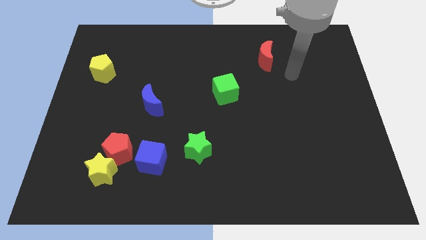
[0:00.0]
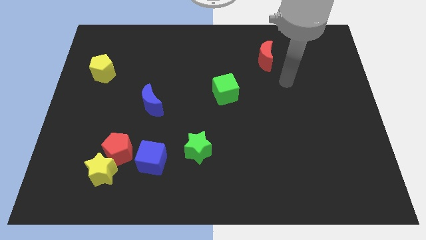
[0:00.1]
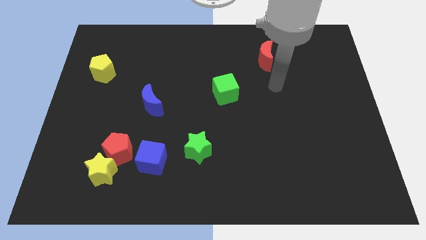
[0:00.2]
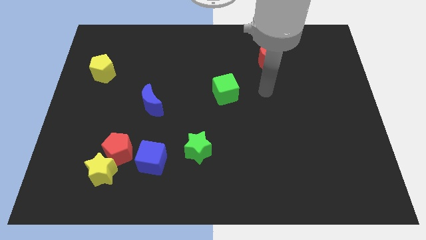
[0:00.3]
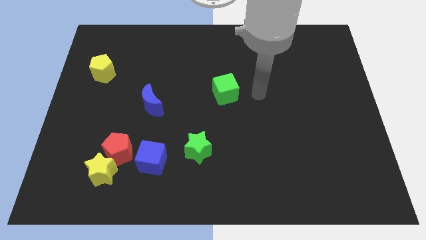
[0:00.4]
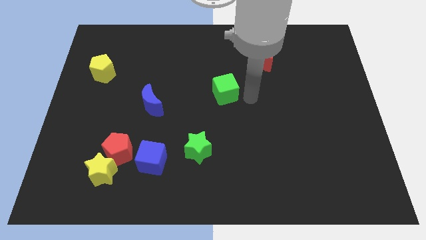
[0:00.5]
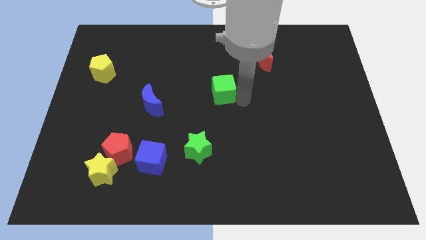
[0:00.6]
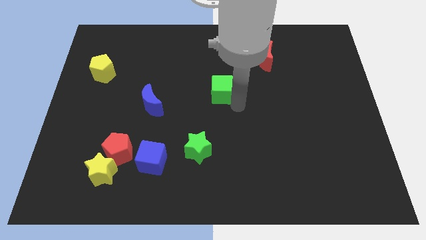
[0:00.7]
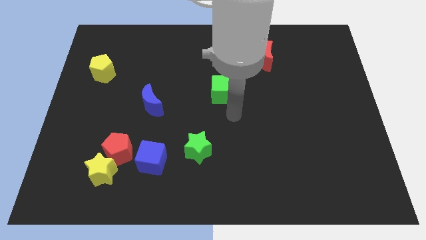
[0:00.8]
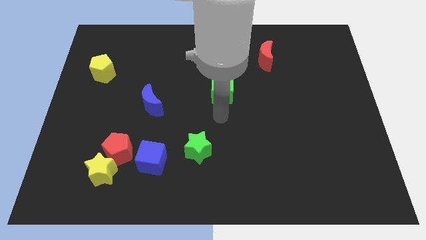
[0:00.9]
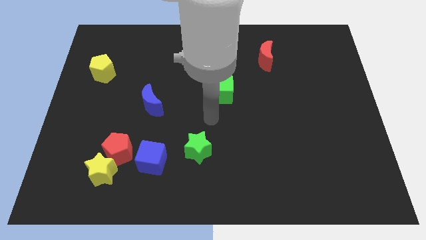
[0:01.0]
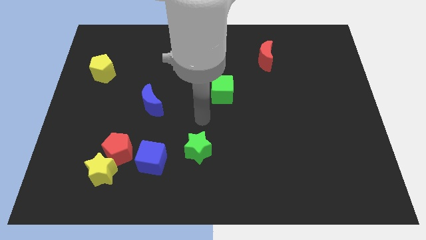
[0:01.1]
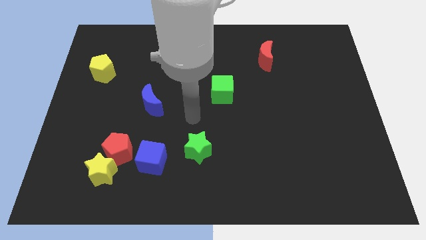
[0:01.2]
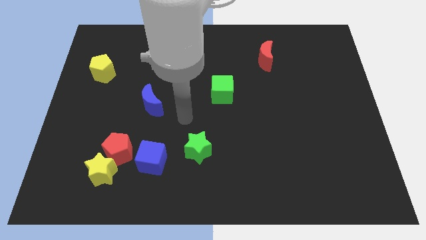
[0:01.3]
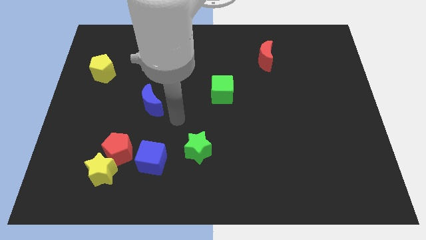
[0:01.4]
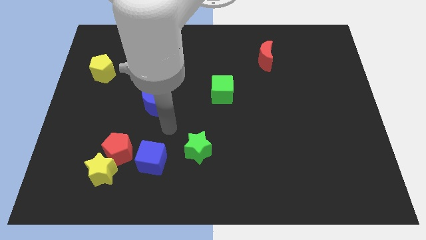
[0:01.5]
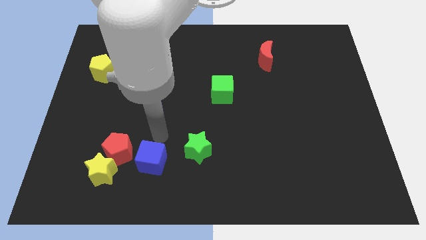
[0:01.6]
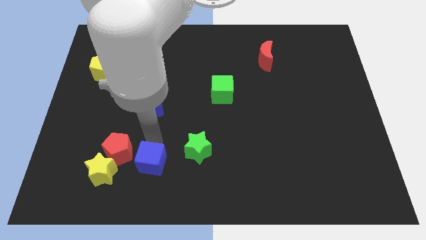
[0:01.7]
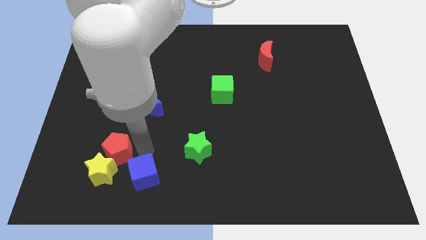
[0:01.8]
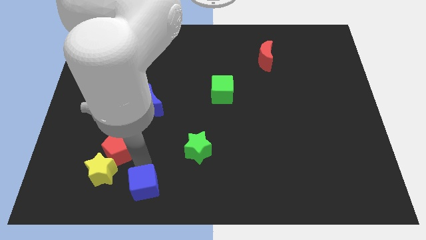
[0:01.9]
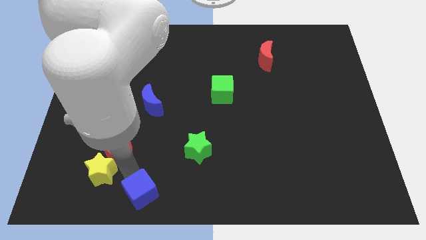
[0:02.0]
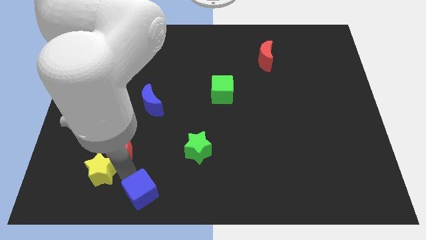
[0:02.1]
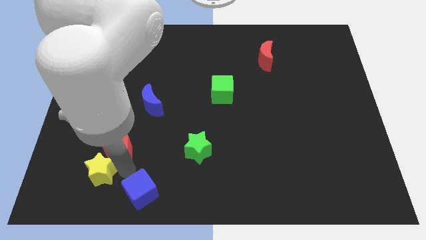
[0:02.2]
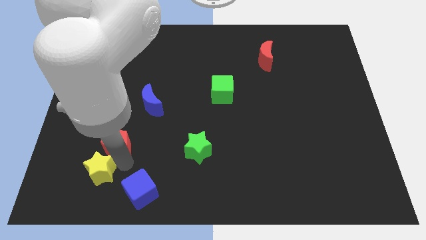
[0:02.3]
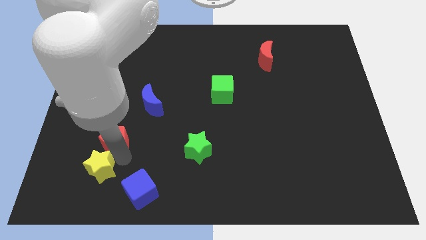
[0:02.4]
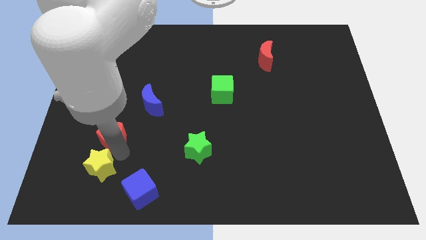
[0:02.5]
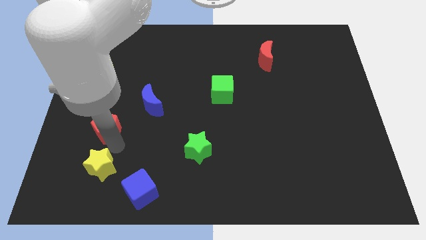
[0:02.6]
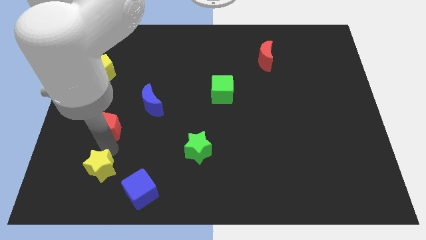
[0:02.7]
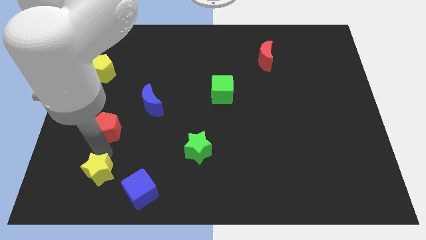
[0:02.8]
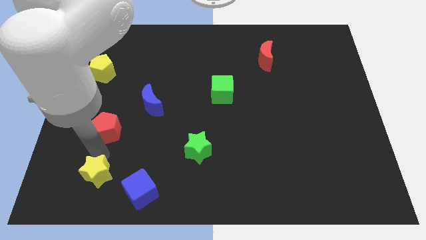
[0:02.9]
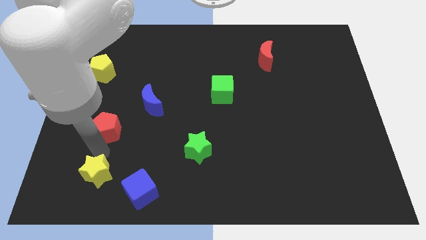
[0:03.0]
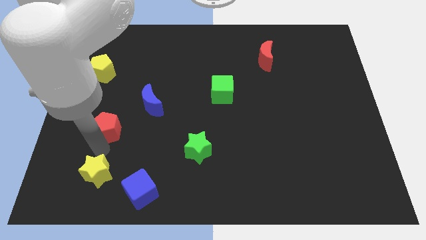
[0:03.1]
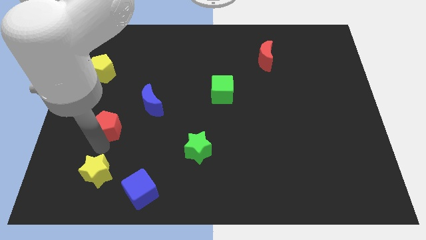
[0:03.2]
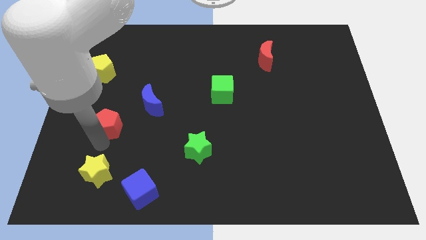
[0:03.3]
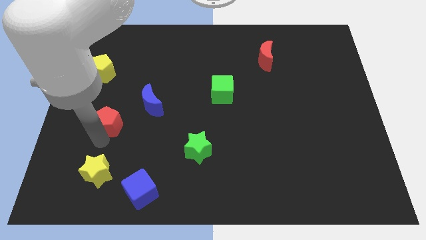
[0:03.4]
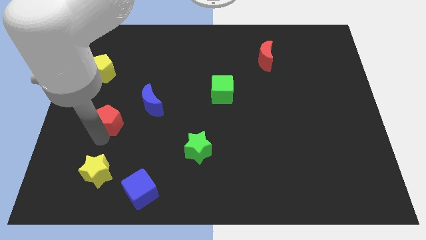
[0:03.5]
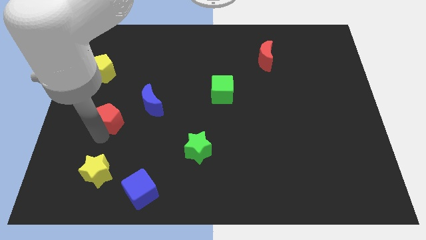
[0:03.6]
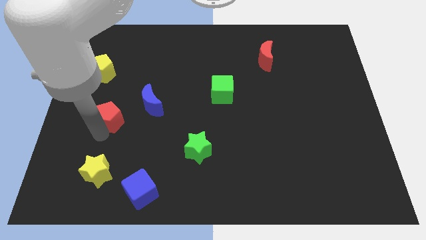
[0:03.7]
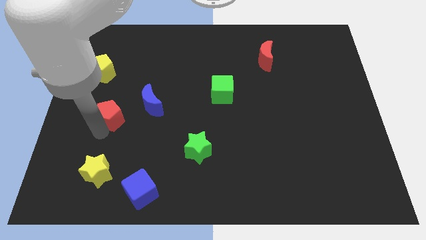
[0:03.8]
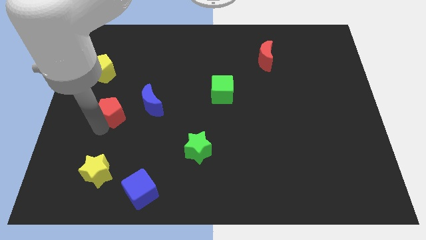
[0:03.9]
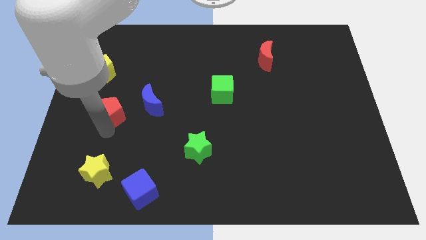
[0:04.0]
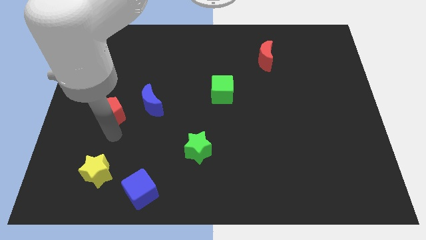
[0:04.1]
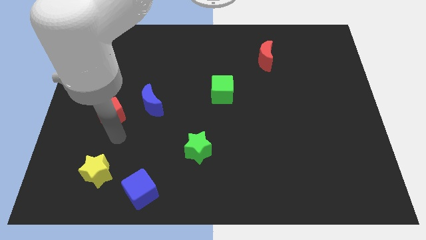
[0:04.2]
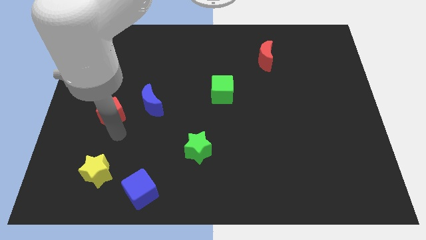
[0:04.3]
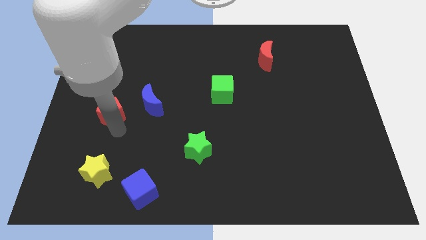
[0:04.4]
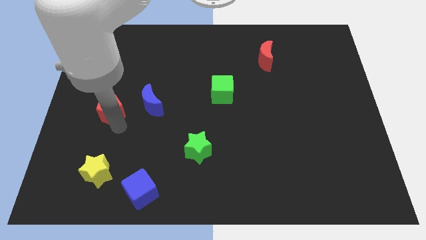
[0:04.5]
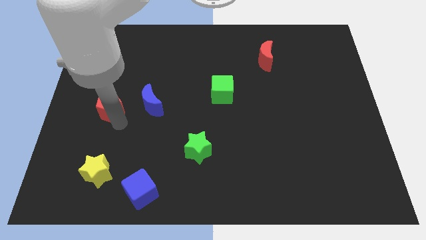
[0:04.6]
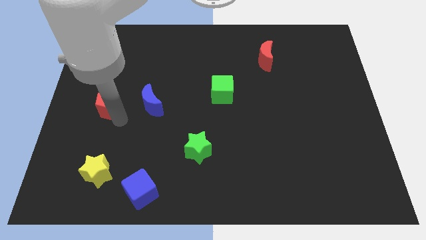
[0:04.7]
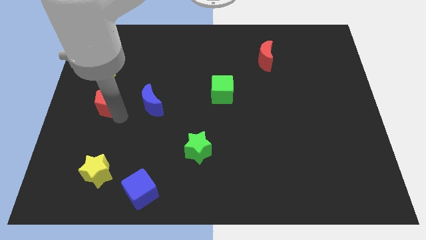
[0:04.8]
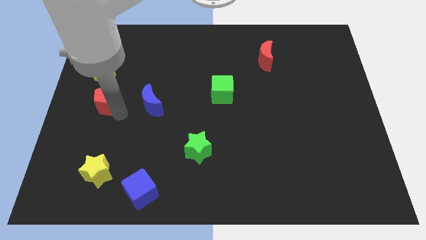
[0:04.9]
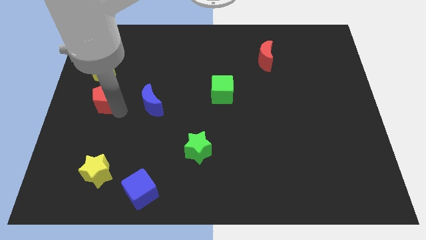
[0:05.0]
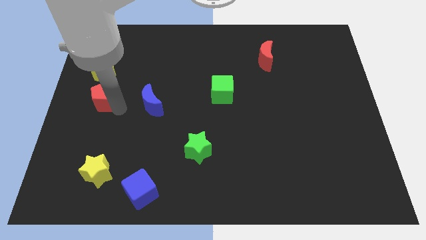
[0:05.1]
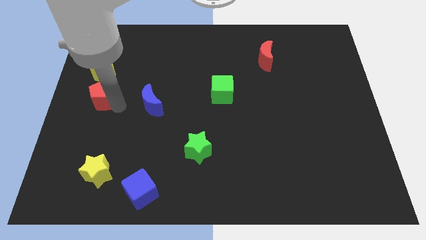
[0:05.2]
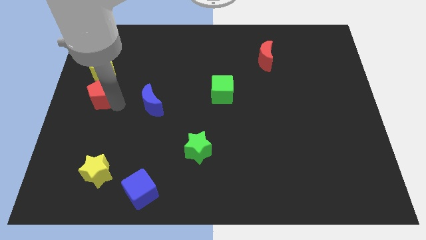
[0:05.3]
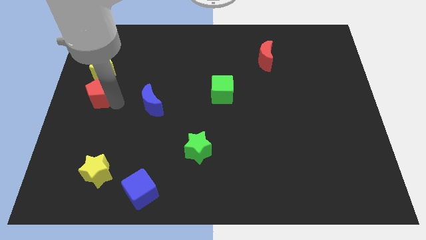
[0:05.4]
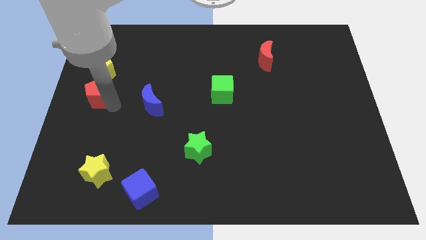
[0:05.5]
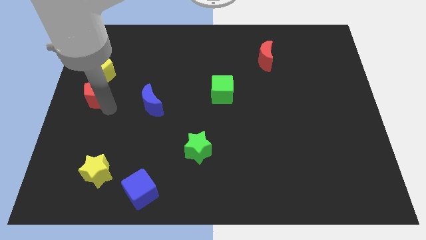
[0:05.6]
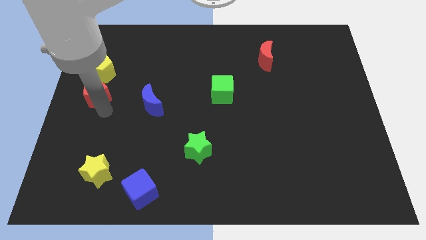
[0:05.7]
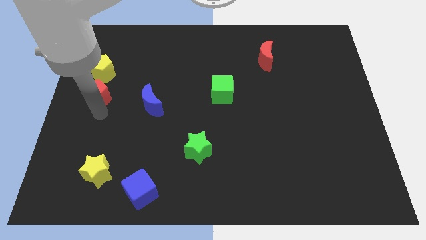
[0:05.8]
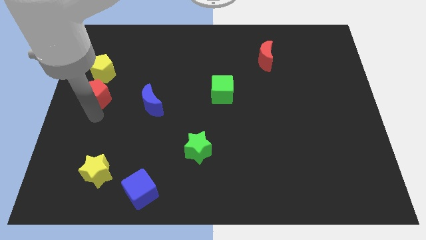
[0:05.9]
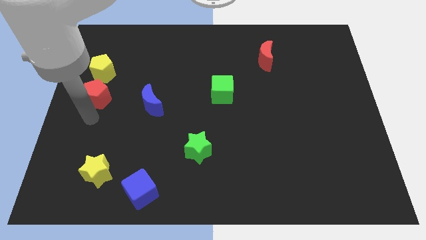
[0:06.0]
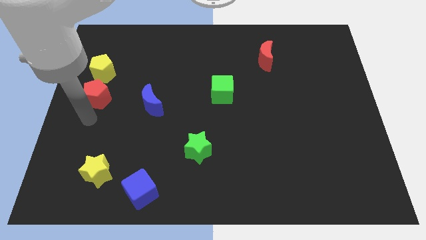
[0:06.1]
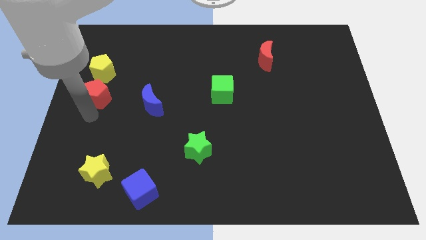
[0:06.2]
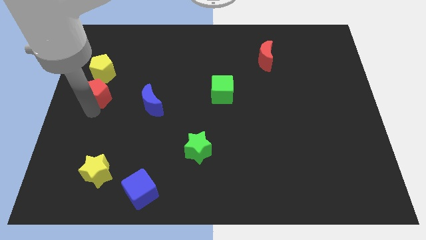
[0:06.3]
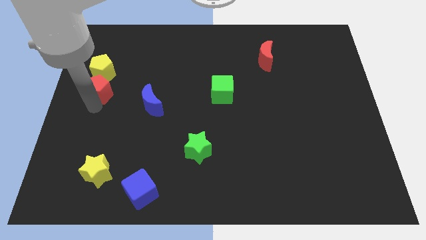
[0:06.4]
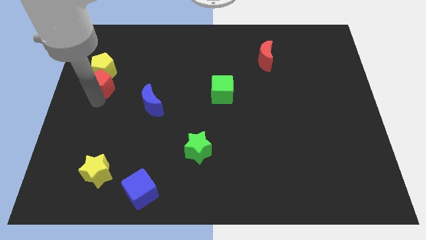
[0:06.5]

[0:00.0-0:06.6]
slide the red pentagon close to the yellow pentagon
